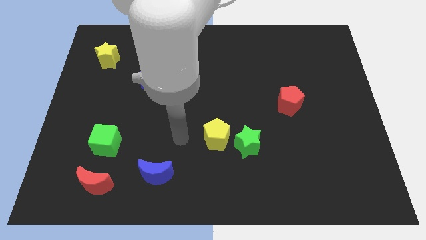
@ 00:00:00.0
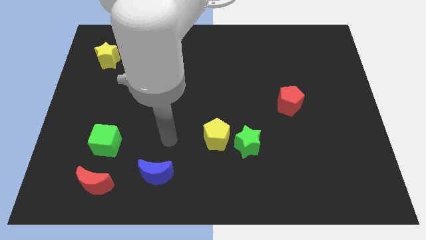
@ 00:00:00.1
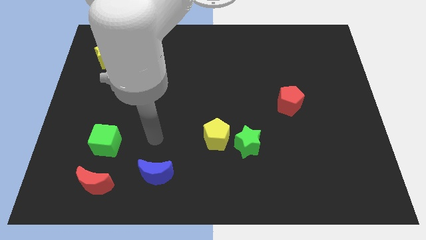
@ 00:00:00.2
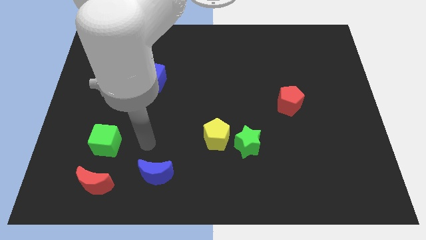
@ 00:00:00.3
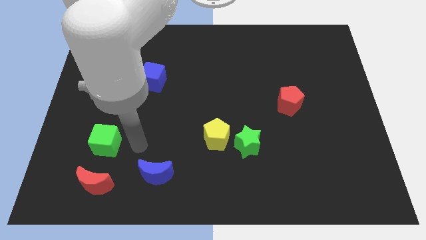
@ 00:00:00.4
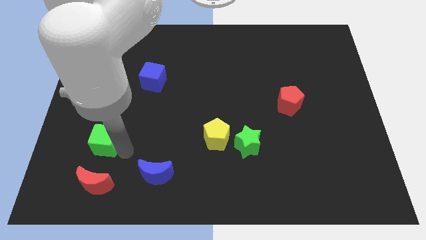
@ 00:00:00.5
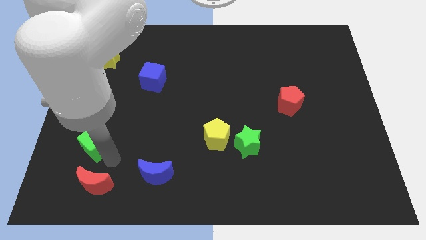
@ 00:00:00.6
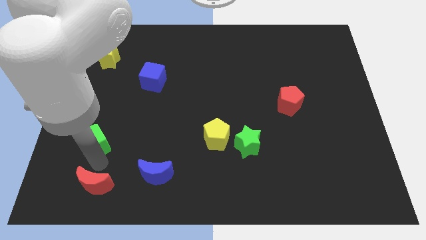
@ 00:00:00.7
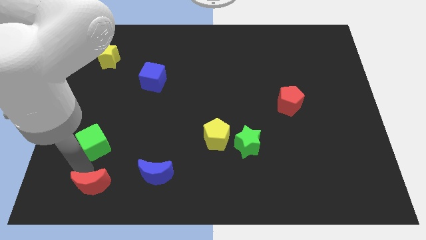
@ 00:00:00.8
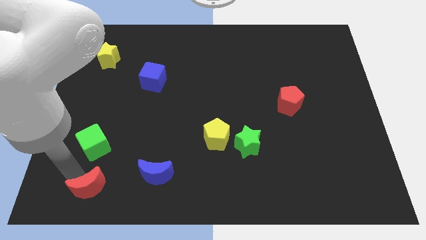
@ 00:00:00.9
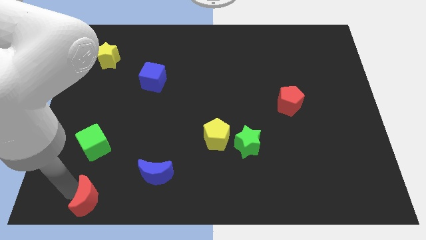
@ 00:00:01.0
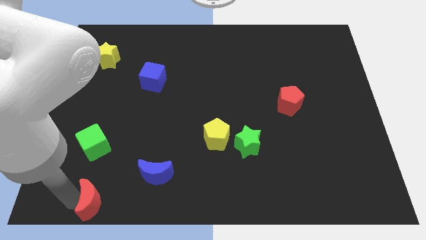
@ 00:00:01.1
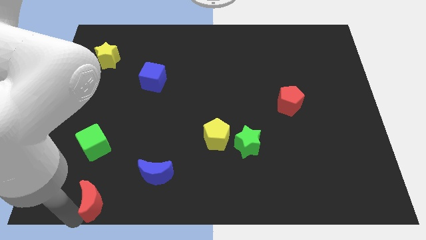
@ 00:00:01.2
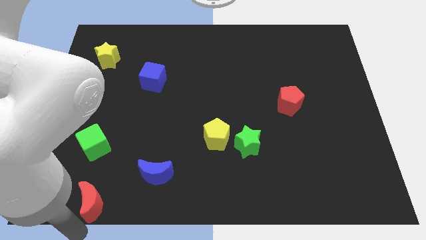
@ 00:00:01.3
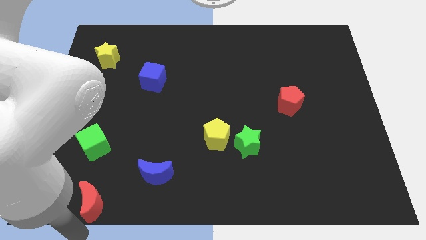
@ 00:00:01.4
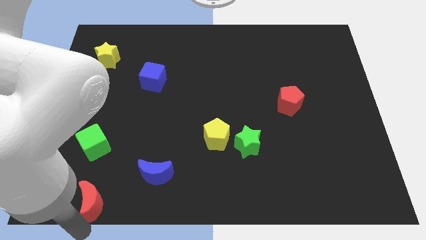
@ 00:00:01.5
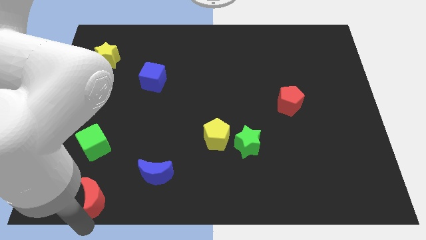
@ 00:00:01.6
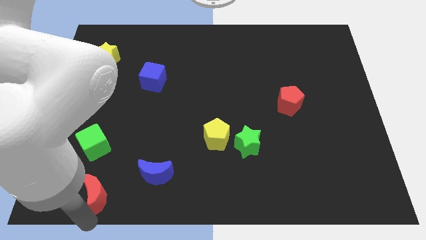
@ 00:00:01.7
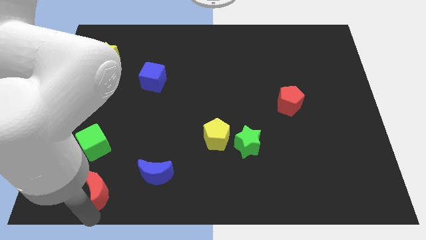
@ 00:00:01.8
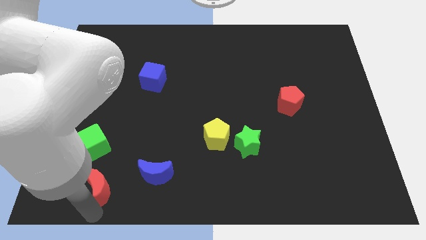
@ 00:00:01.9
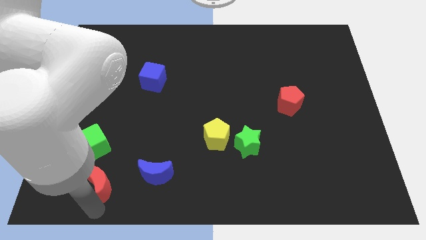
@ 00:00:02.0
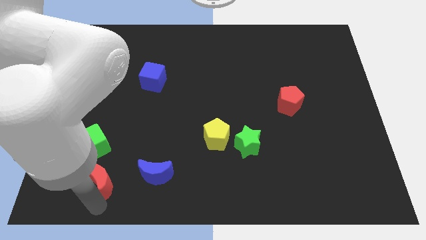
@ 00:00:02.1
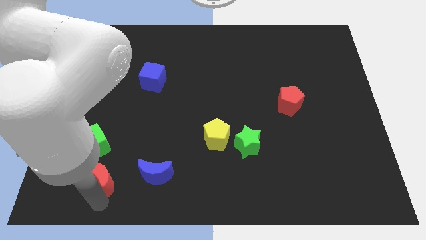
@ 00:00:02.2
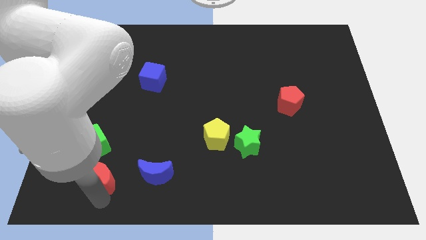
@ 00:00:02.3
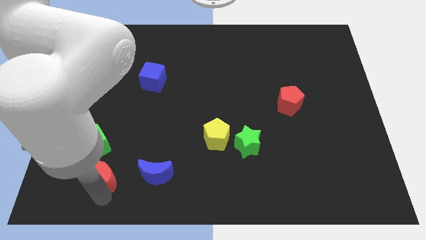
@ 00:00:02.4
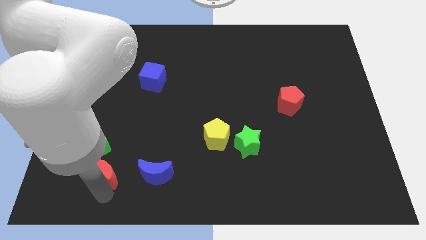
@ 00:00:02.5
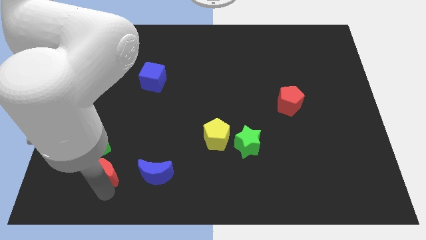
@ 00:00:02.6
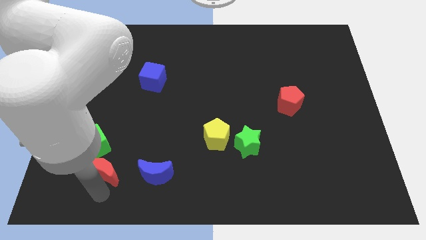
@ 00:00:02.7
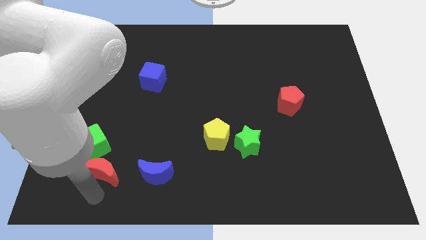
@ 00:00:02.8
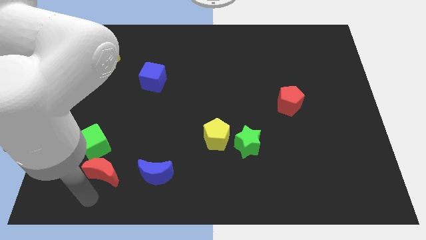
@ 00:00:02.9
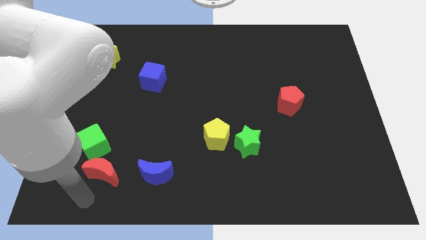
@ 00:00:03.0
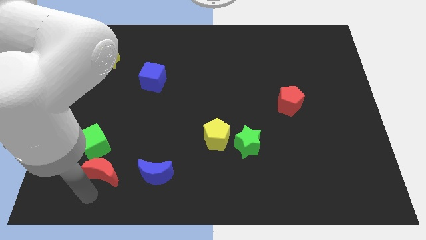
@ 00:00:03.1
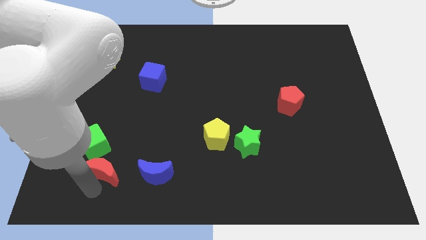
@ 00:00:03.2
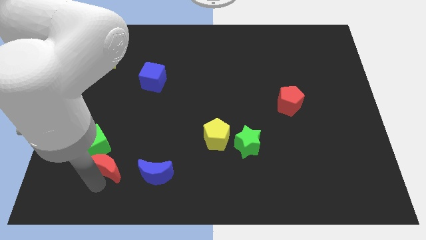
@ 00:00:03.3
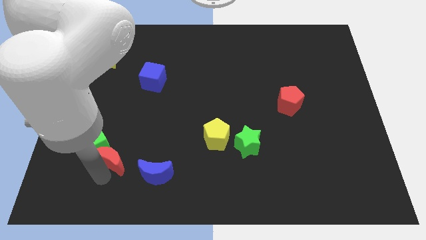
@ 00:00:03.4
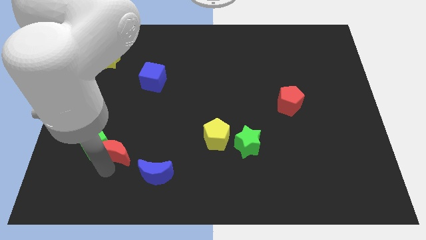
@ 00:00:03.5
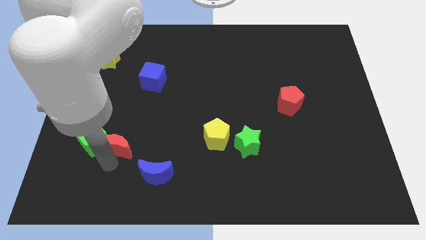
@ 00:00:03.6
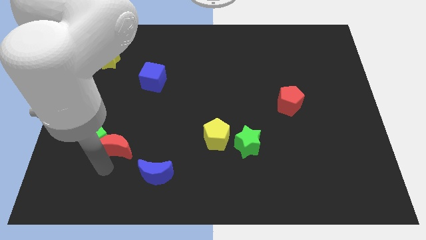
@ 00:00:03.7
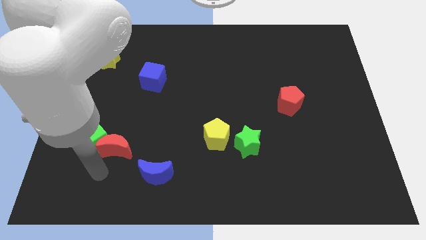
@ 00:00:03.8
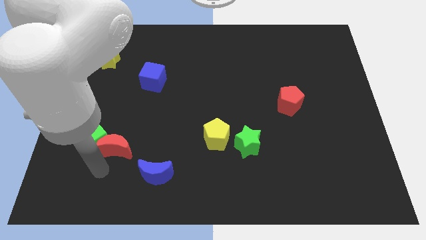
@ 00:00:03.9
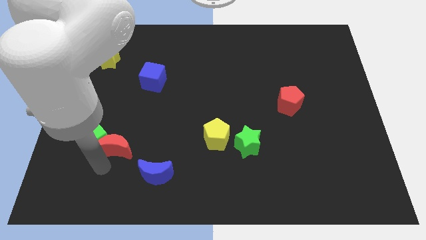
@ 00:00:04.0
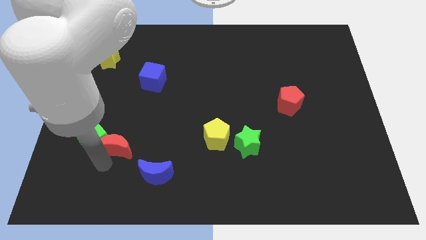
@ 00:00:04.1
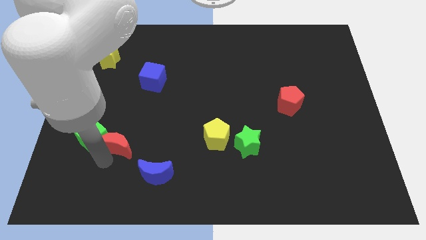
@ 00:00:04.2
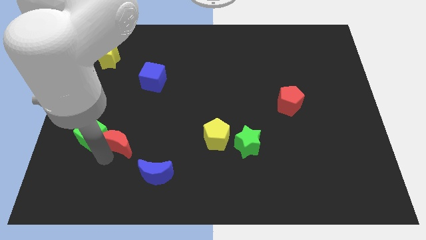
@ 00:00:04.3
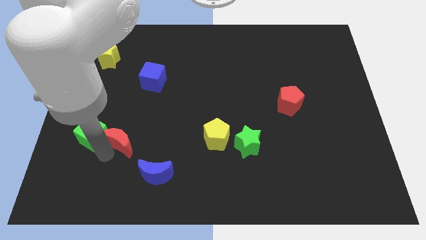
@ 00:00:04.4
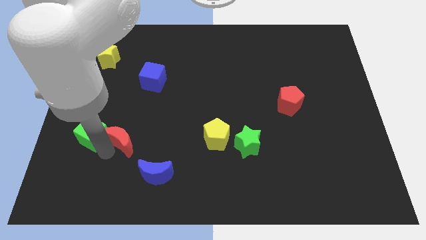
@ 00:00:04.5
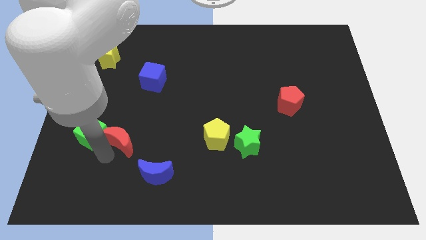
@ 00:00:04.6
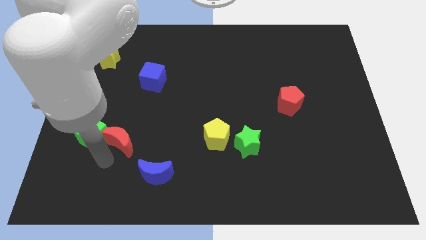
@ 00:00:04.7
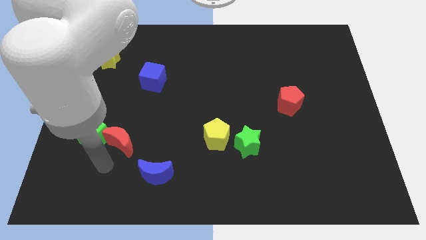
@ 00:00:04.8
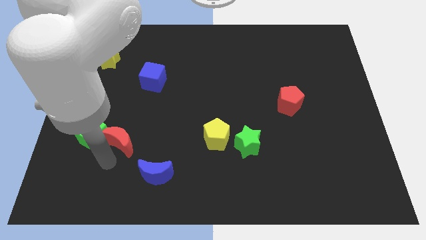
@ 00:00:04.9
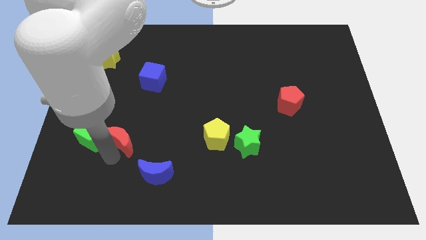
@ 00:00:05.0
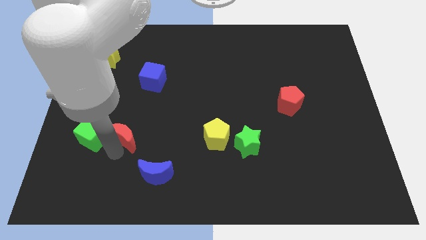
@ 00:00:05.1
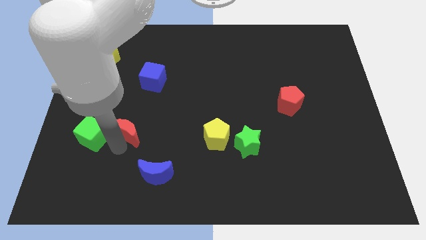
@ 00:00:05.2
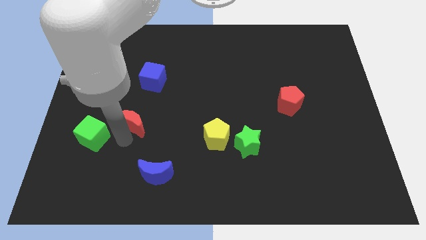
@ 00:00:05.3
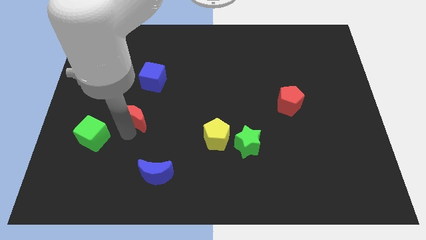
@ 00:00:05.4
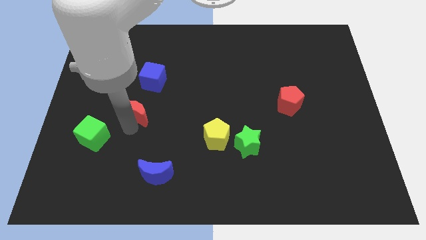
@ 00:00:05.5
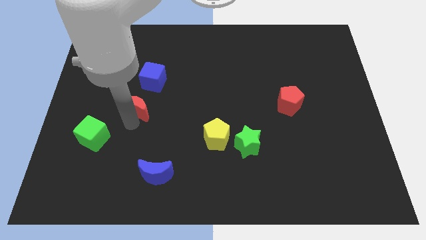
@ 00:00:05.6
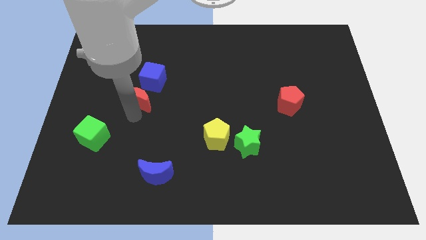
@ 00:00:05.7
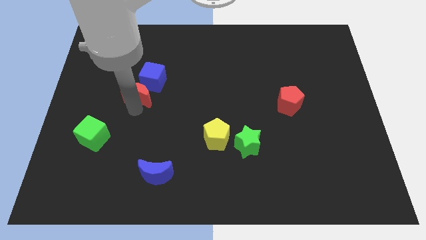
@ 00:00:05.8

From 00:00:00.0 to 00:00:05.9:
move the red moon close to the blue cube

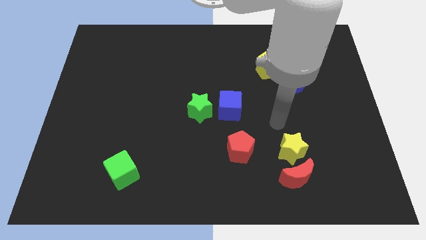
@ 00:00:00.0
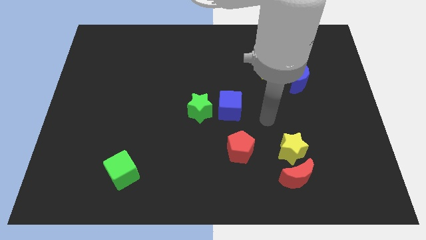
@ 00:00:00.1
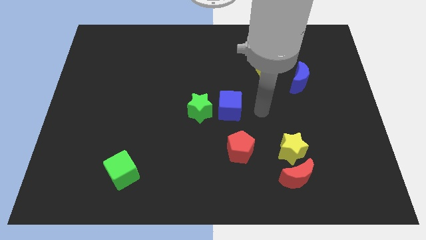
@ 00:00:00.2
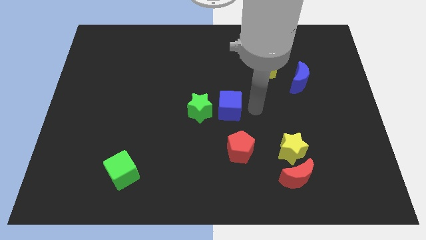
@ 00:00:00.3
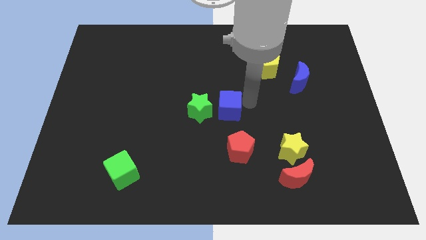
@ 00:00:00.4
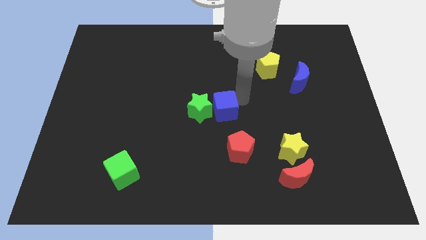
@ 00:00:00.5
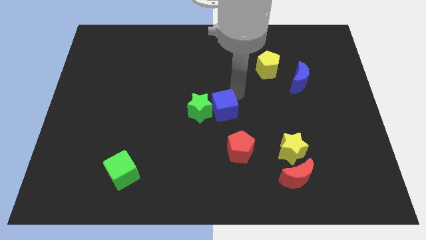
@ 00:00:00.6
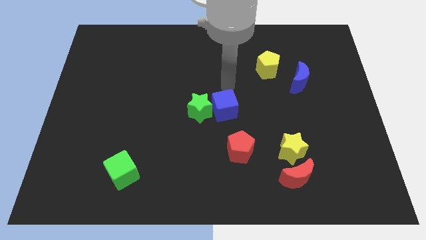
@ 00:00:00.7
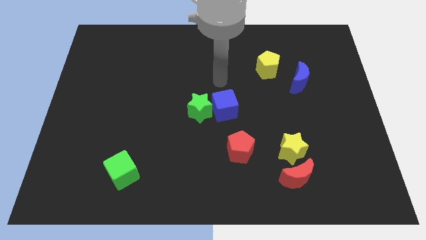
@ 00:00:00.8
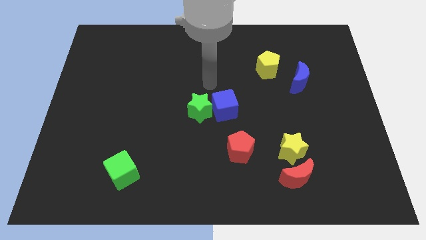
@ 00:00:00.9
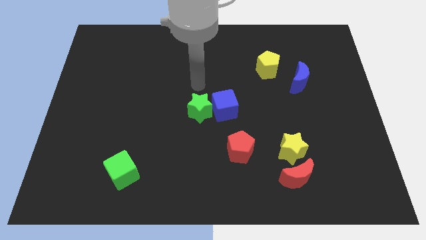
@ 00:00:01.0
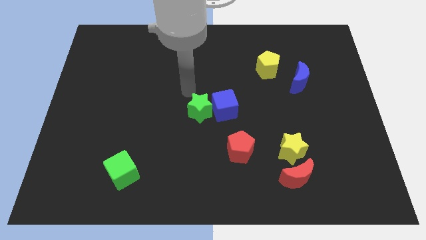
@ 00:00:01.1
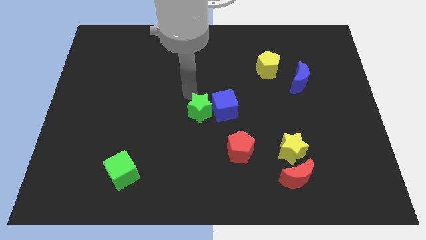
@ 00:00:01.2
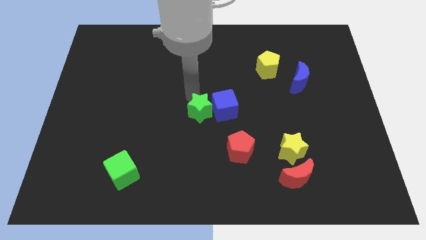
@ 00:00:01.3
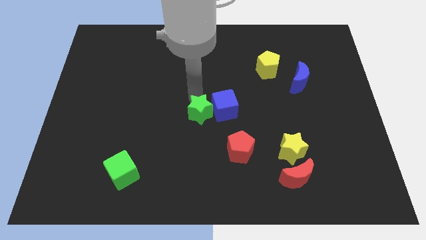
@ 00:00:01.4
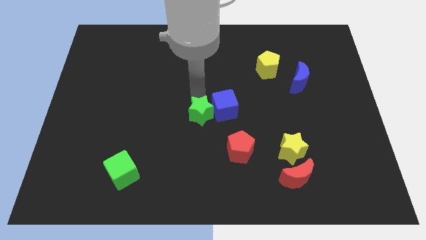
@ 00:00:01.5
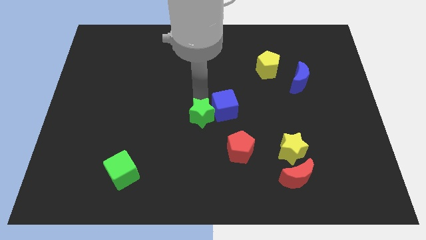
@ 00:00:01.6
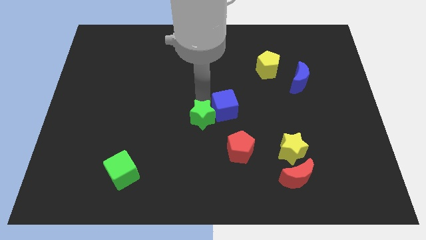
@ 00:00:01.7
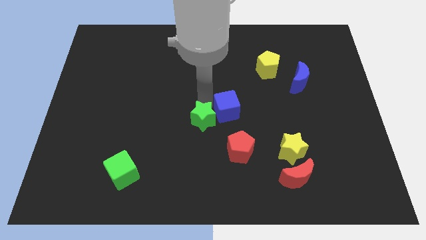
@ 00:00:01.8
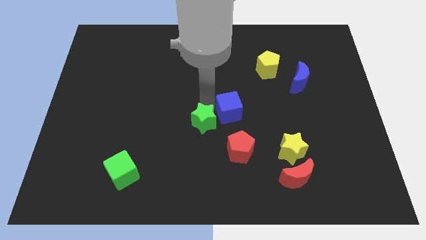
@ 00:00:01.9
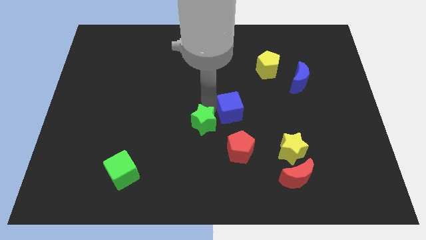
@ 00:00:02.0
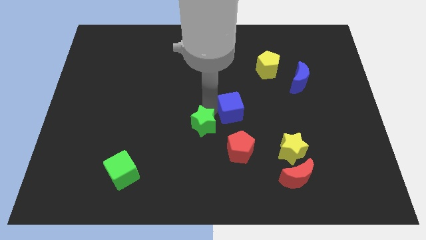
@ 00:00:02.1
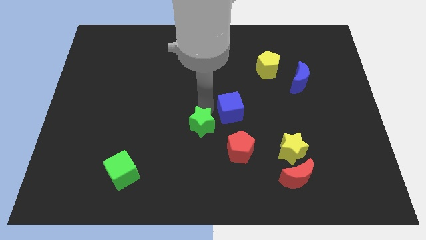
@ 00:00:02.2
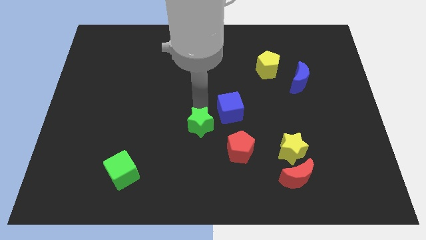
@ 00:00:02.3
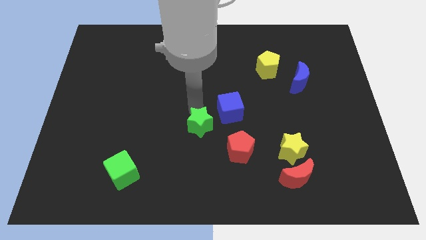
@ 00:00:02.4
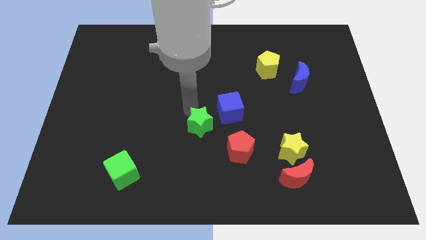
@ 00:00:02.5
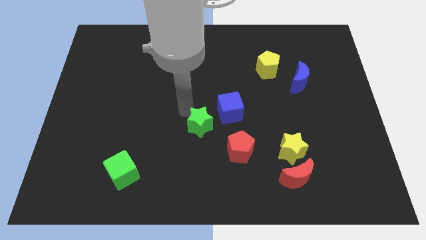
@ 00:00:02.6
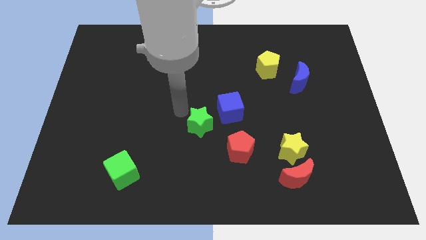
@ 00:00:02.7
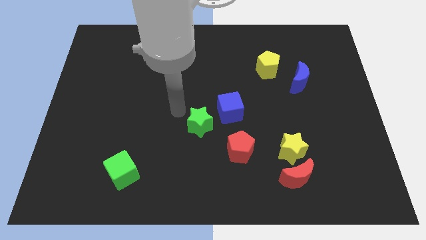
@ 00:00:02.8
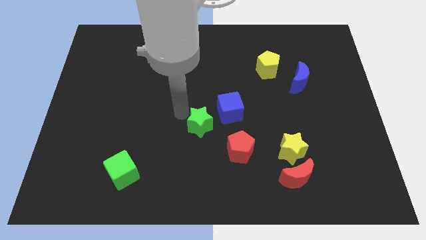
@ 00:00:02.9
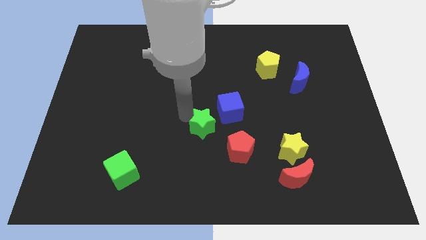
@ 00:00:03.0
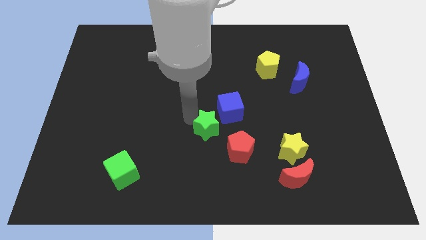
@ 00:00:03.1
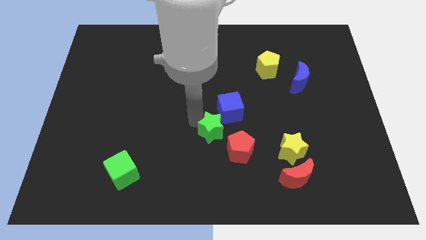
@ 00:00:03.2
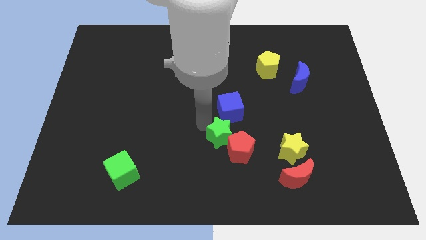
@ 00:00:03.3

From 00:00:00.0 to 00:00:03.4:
slide the green star close to the red pentagon
